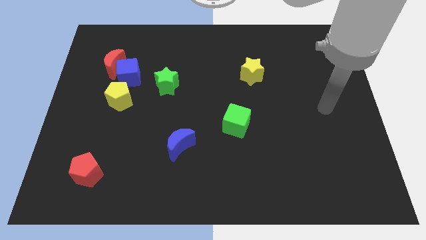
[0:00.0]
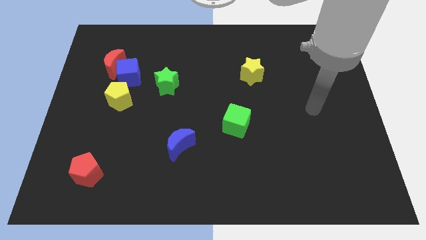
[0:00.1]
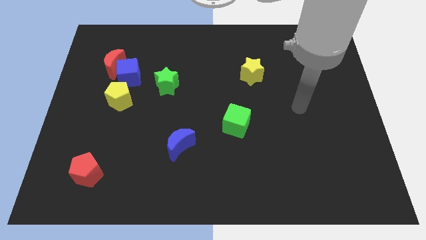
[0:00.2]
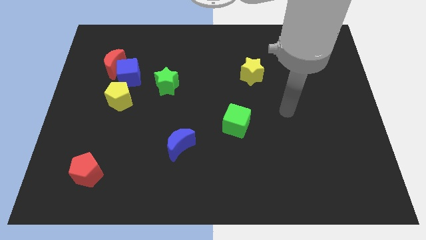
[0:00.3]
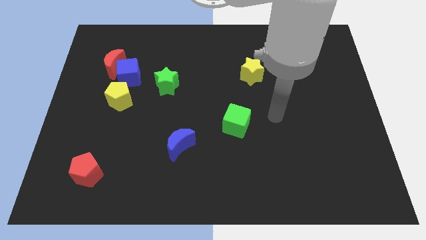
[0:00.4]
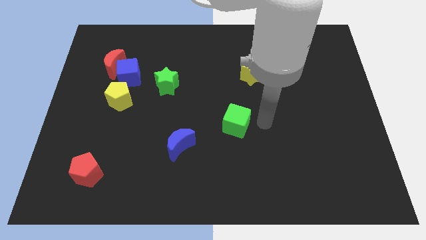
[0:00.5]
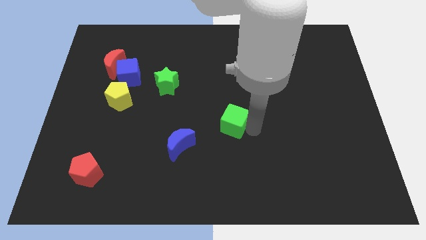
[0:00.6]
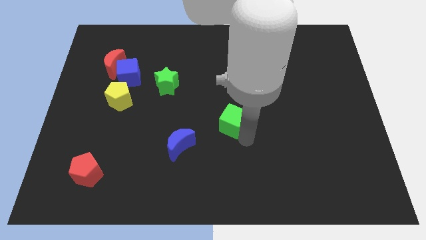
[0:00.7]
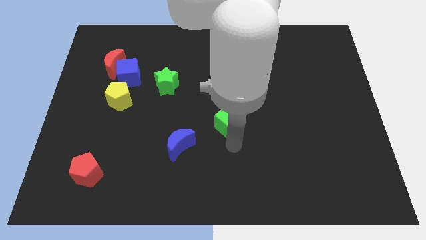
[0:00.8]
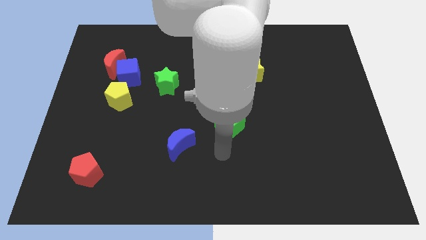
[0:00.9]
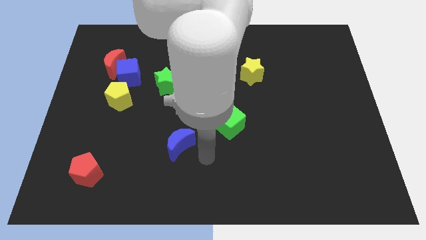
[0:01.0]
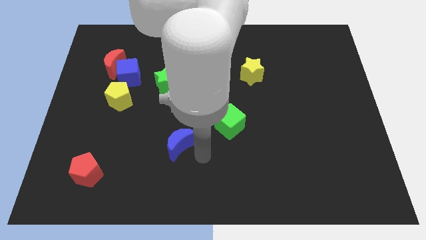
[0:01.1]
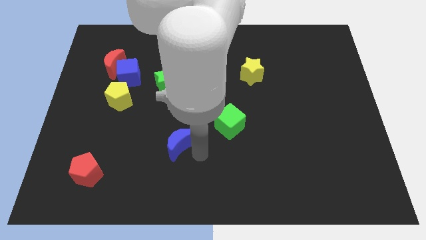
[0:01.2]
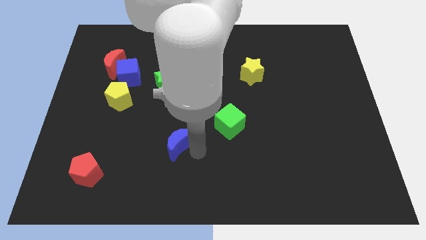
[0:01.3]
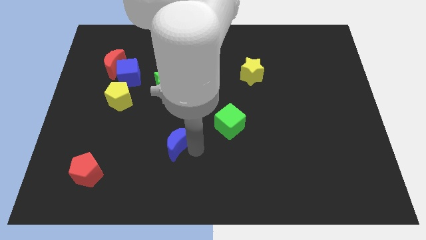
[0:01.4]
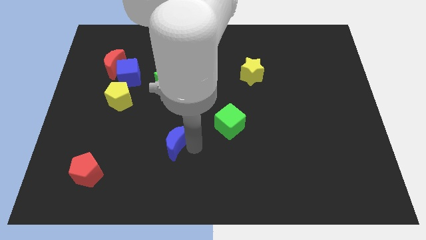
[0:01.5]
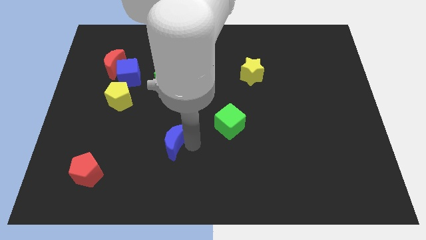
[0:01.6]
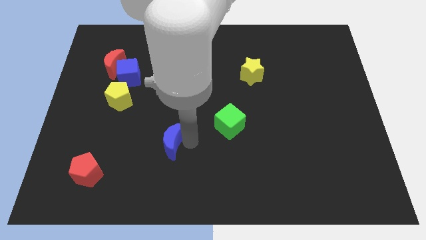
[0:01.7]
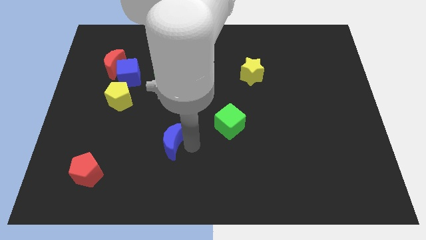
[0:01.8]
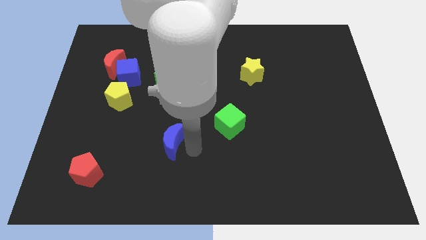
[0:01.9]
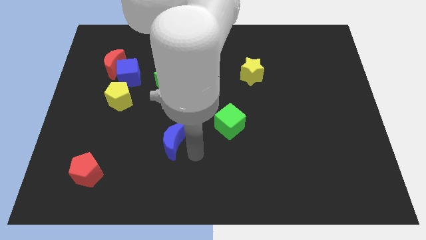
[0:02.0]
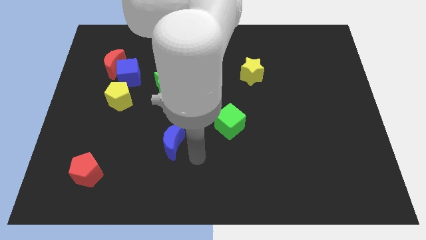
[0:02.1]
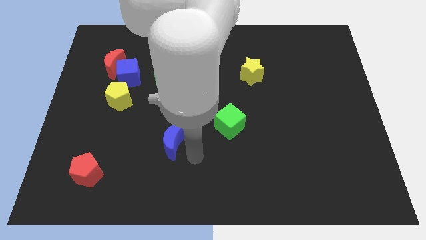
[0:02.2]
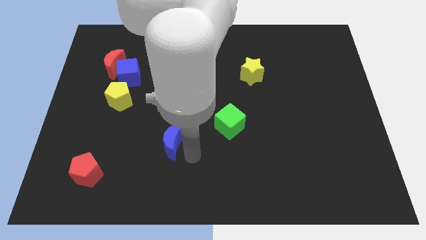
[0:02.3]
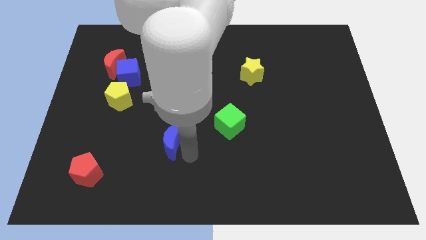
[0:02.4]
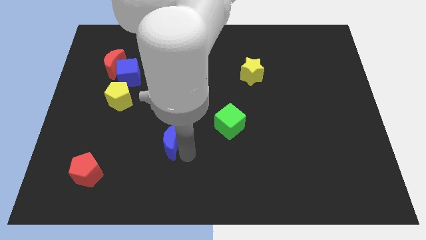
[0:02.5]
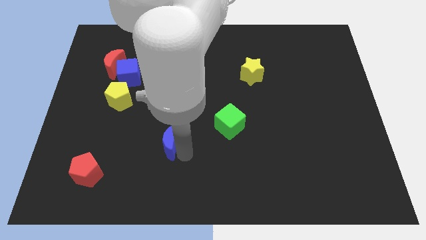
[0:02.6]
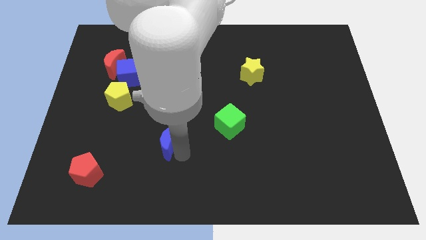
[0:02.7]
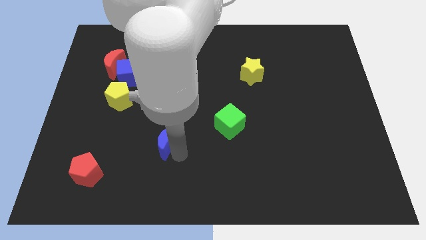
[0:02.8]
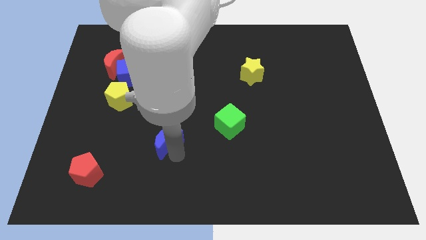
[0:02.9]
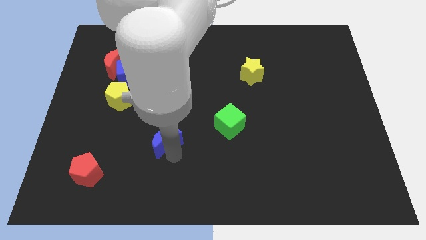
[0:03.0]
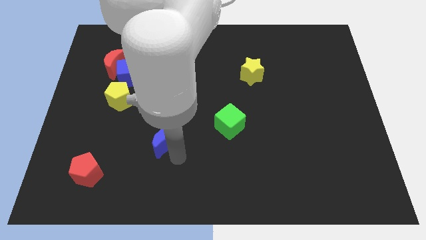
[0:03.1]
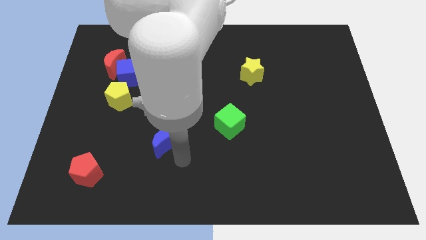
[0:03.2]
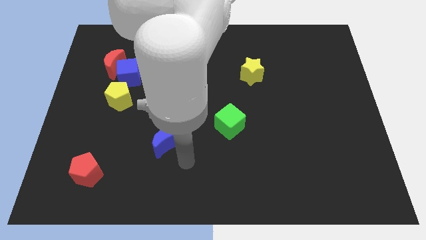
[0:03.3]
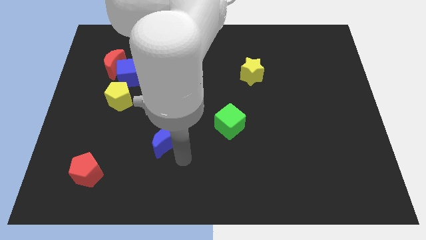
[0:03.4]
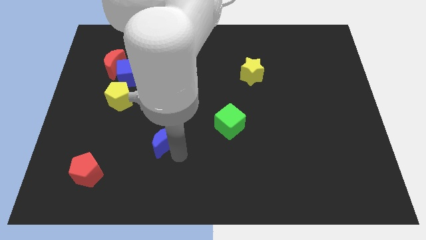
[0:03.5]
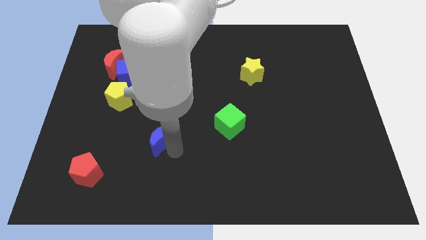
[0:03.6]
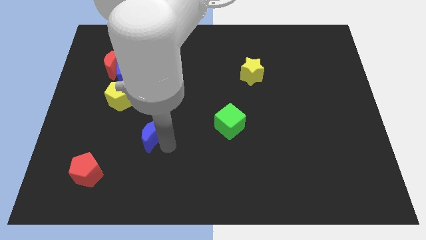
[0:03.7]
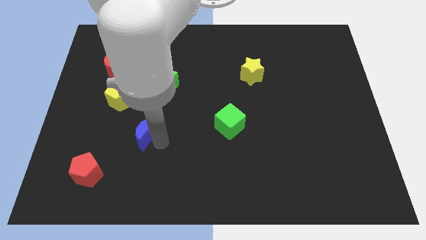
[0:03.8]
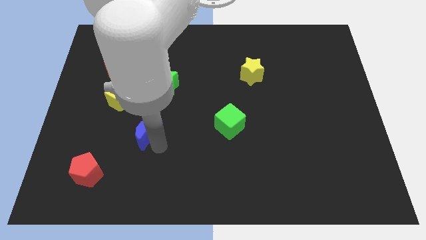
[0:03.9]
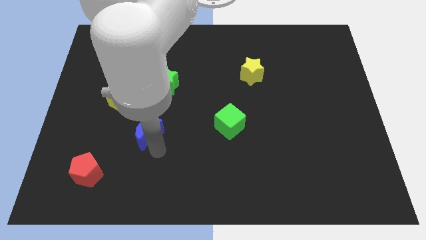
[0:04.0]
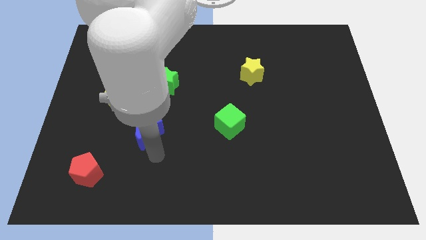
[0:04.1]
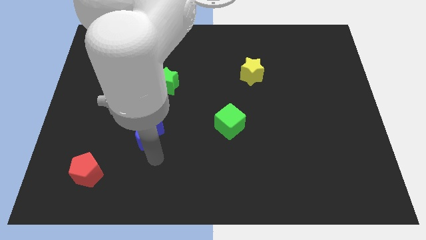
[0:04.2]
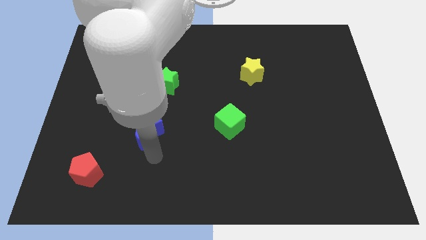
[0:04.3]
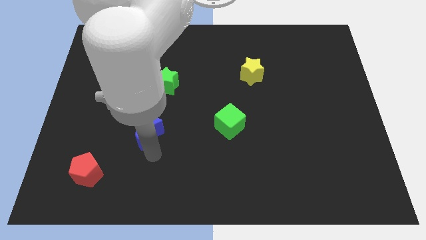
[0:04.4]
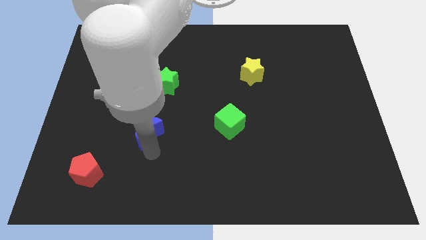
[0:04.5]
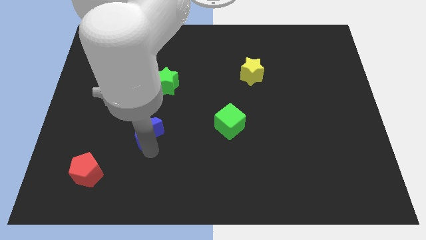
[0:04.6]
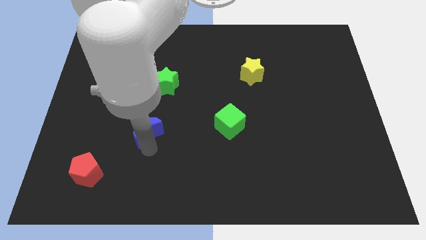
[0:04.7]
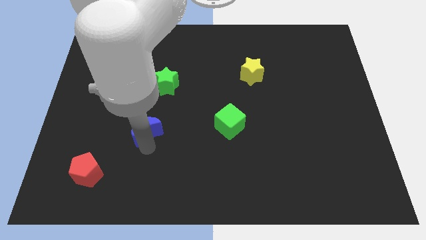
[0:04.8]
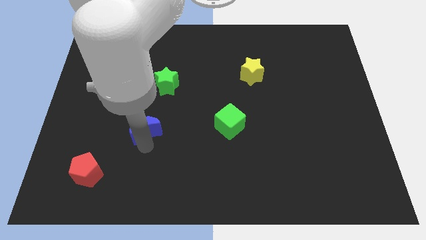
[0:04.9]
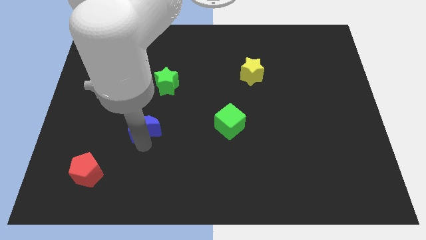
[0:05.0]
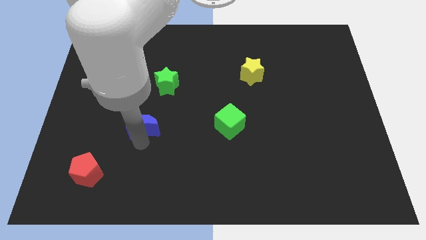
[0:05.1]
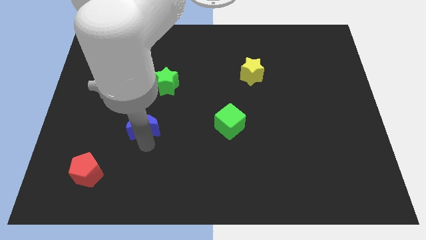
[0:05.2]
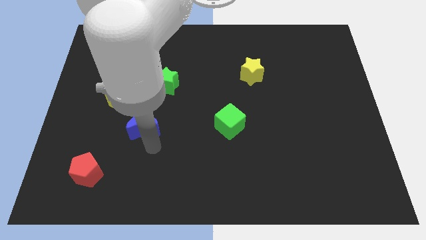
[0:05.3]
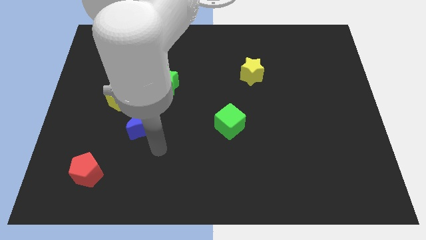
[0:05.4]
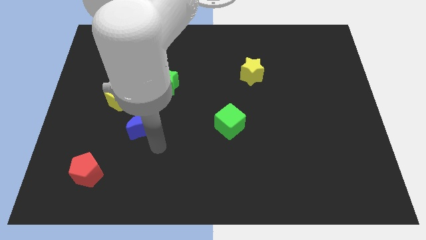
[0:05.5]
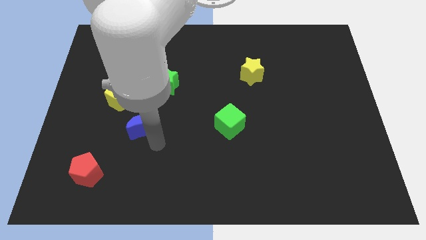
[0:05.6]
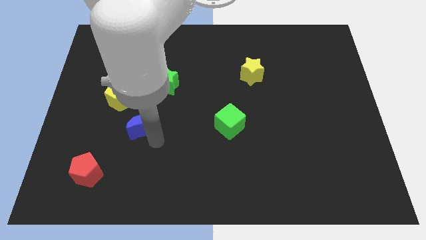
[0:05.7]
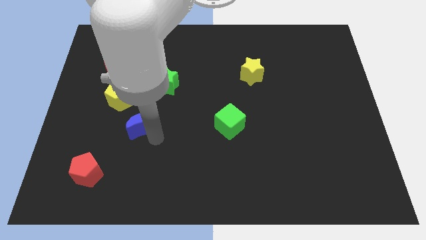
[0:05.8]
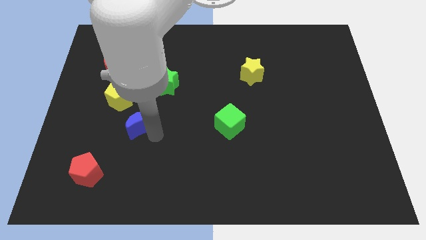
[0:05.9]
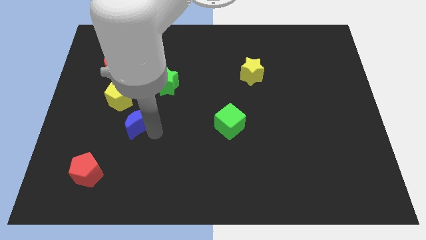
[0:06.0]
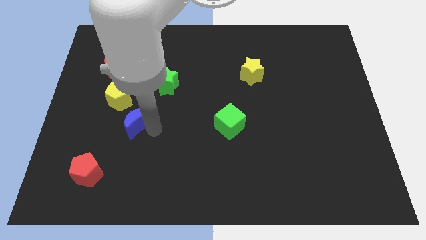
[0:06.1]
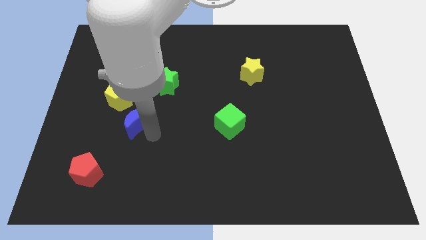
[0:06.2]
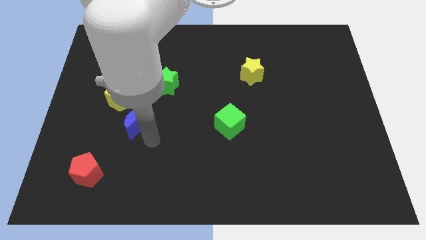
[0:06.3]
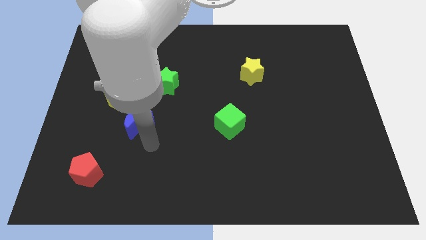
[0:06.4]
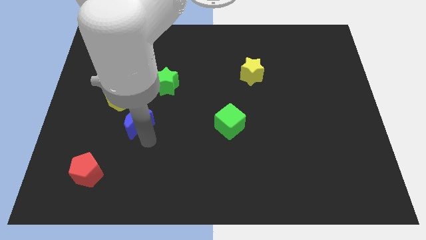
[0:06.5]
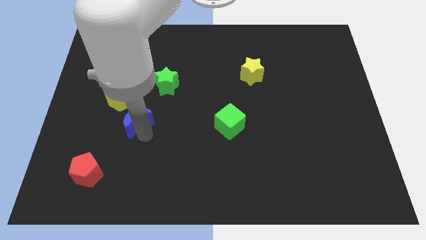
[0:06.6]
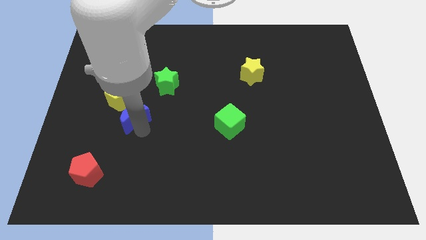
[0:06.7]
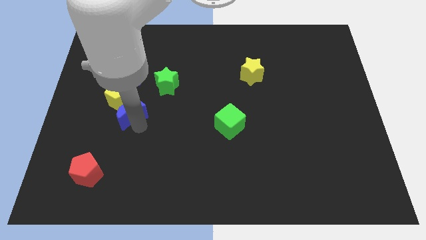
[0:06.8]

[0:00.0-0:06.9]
put the blue moon to the yellow pentagon
